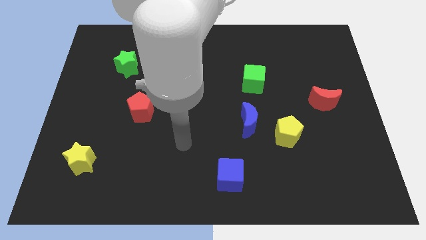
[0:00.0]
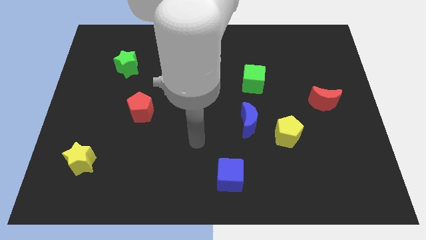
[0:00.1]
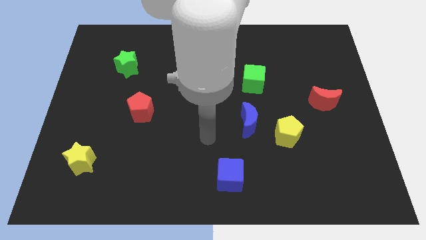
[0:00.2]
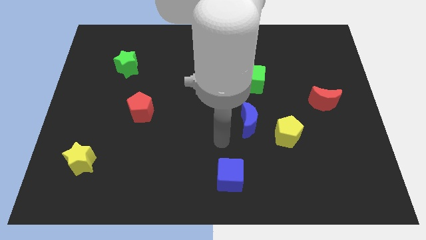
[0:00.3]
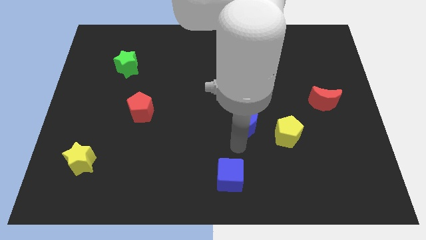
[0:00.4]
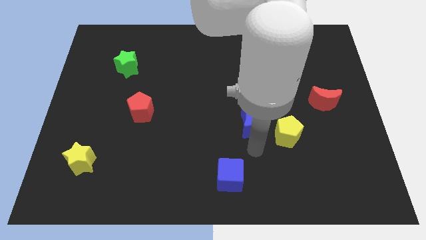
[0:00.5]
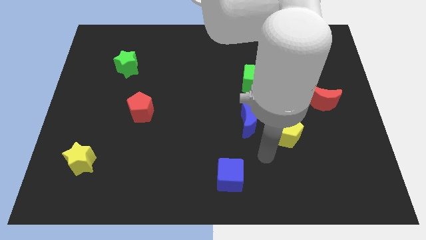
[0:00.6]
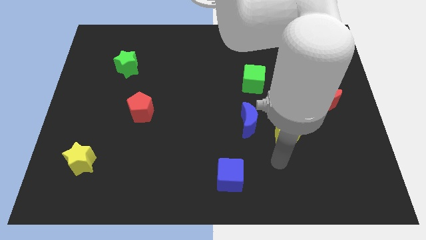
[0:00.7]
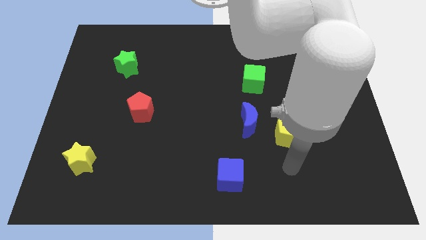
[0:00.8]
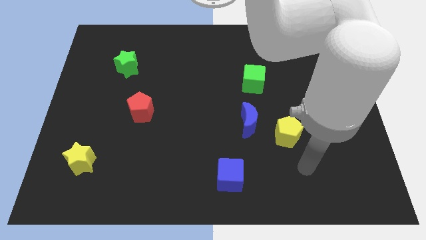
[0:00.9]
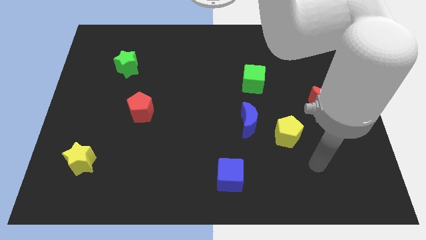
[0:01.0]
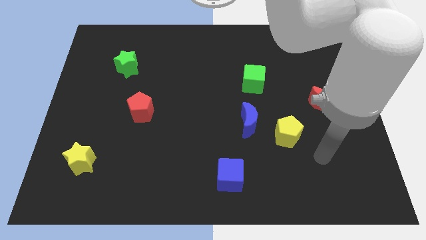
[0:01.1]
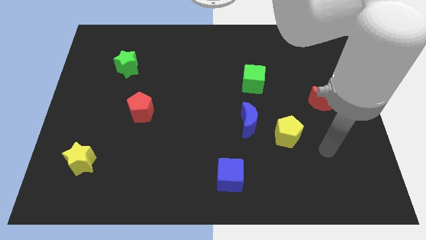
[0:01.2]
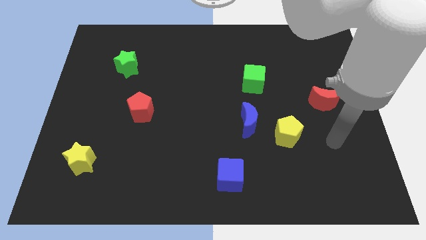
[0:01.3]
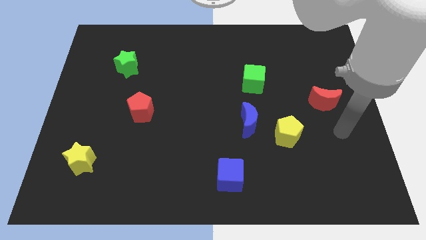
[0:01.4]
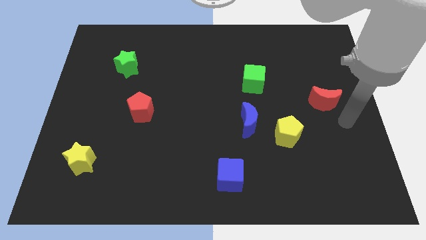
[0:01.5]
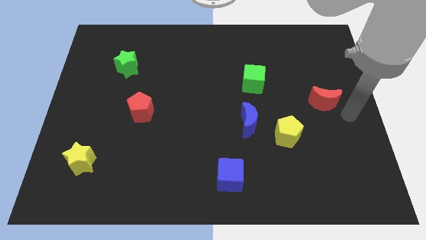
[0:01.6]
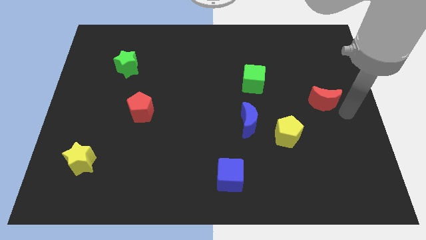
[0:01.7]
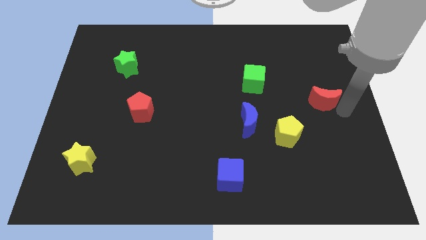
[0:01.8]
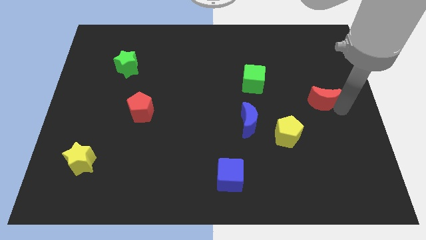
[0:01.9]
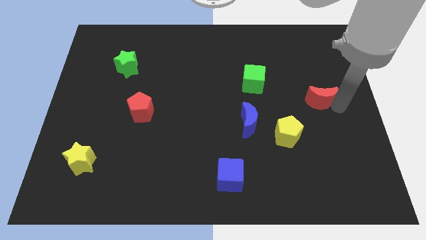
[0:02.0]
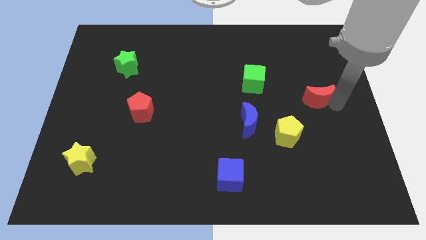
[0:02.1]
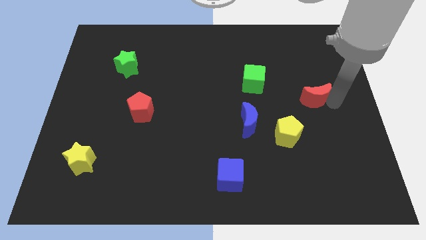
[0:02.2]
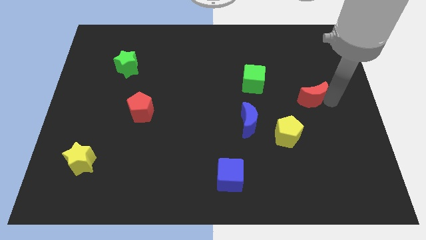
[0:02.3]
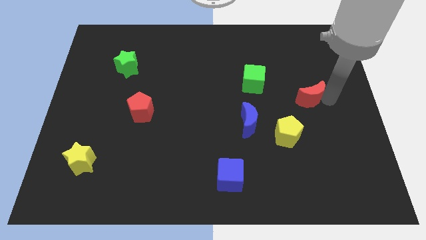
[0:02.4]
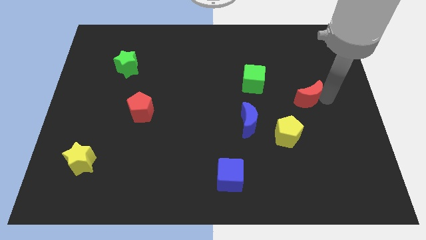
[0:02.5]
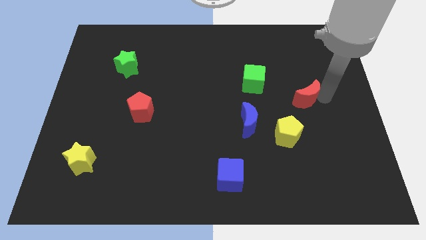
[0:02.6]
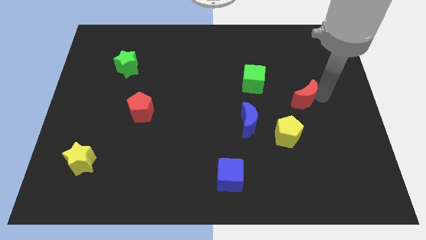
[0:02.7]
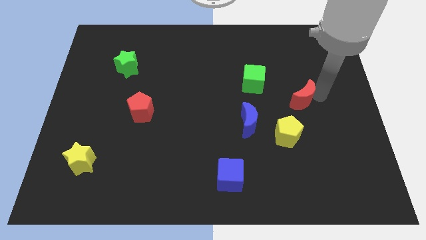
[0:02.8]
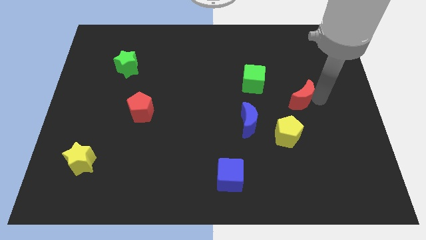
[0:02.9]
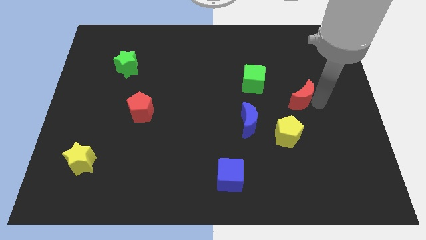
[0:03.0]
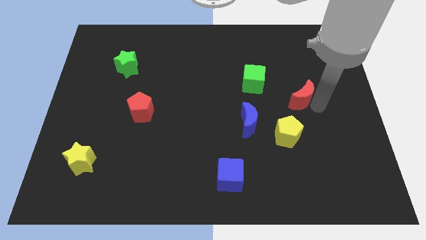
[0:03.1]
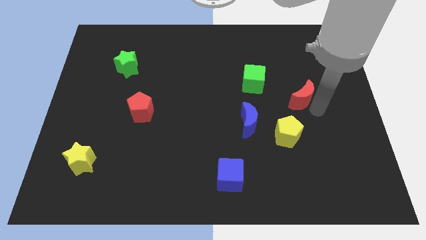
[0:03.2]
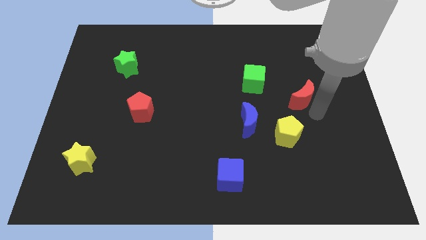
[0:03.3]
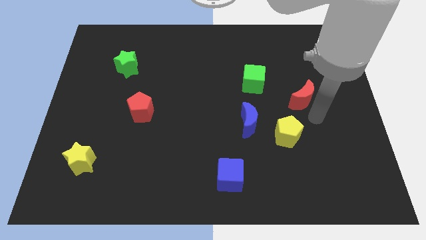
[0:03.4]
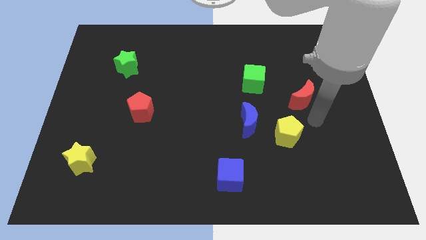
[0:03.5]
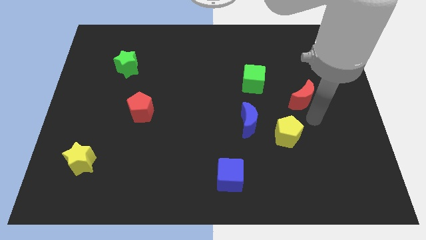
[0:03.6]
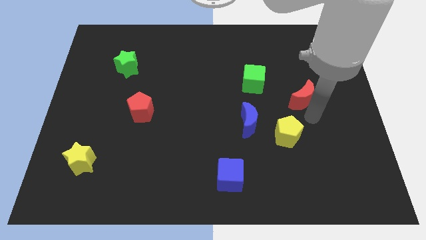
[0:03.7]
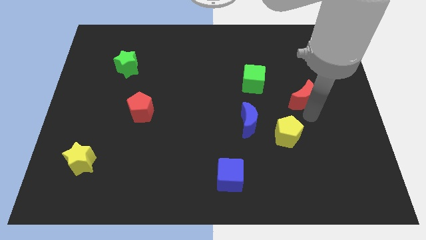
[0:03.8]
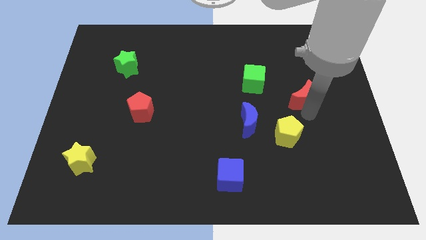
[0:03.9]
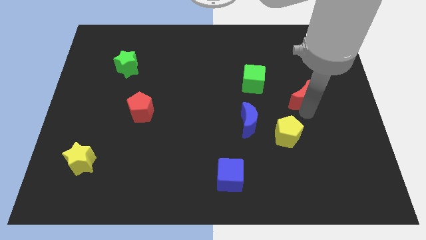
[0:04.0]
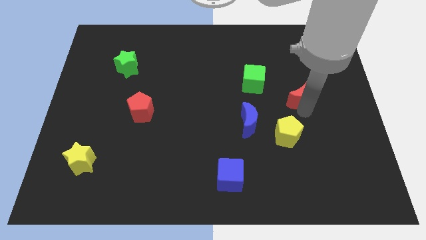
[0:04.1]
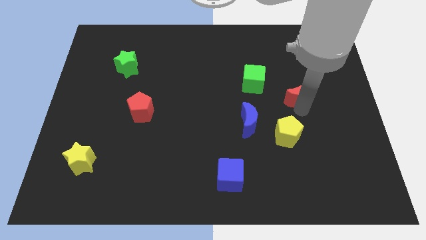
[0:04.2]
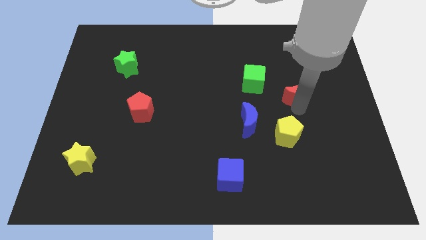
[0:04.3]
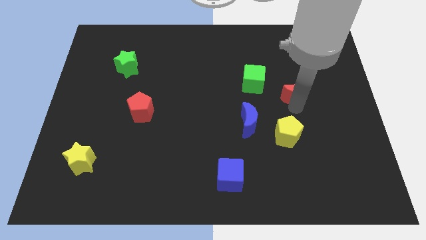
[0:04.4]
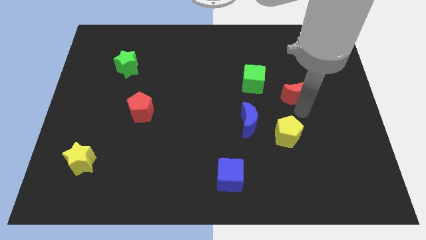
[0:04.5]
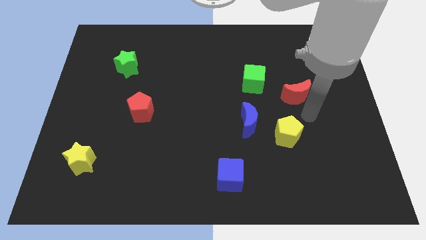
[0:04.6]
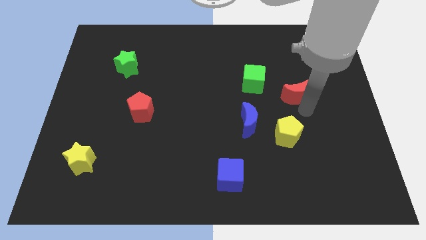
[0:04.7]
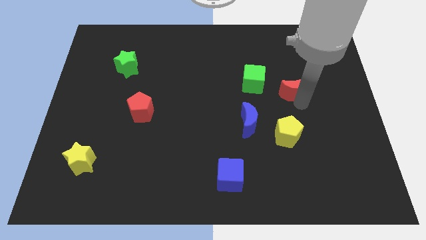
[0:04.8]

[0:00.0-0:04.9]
slide the red moon somewhat upwards and then to the left

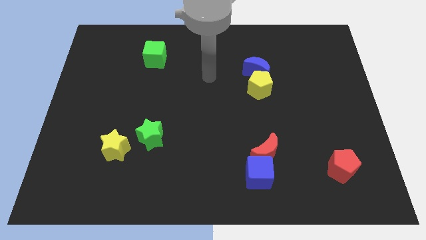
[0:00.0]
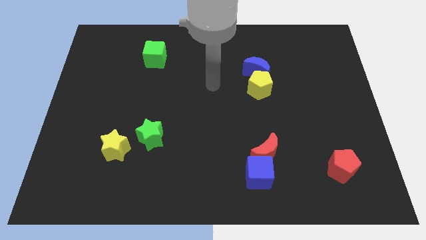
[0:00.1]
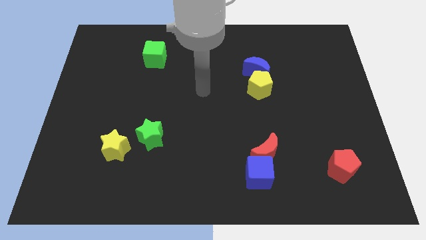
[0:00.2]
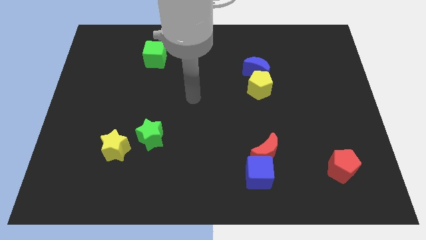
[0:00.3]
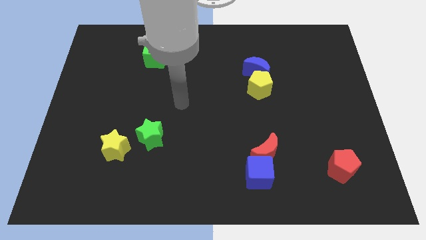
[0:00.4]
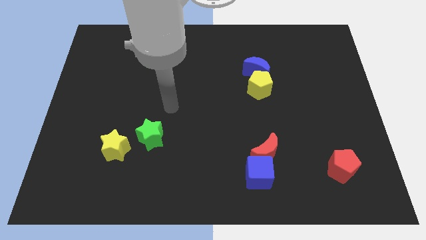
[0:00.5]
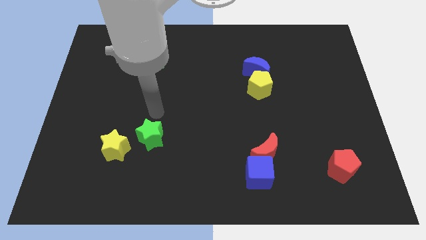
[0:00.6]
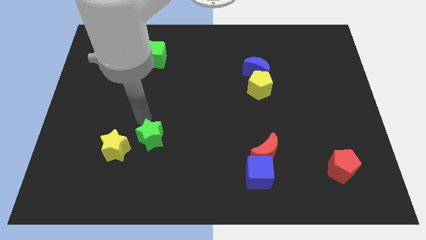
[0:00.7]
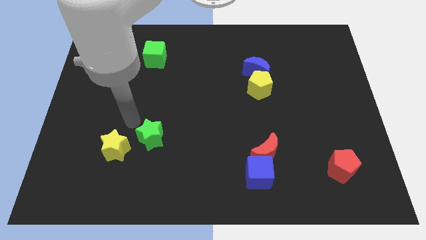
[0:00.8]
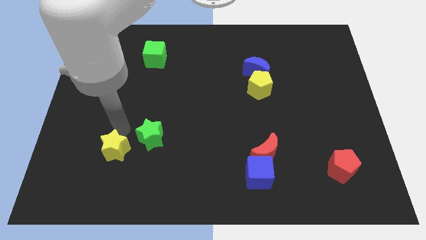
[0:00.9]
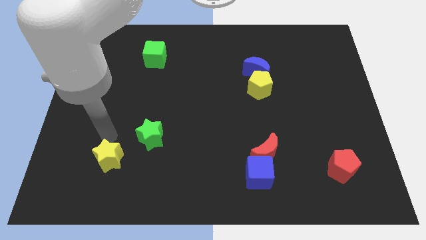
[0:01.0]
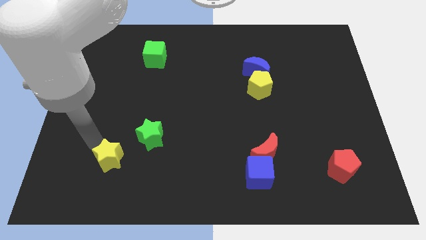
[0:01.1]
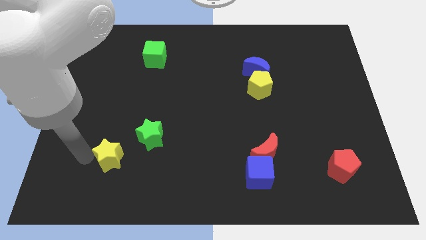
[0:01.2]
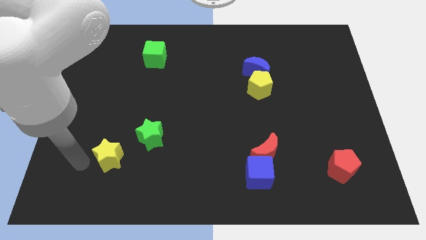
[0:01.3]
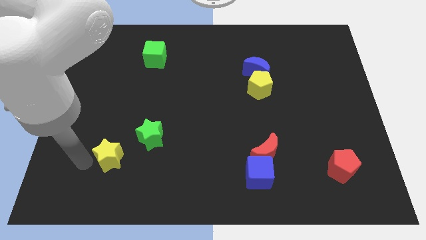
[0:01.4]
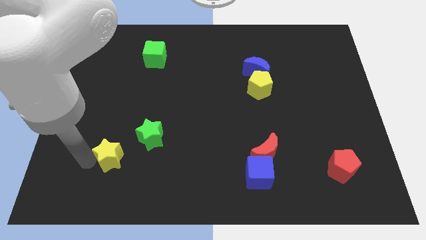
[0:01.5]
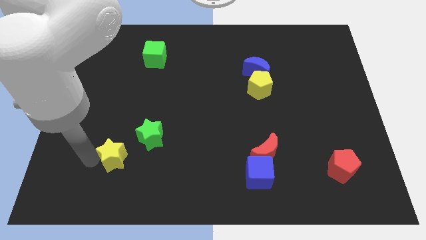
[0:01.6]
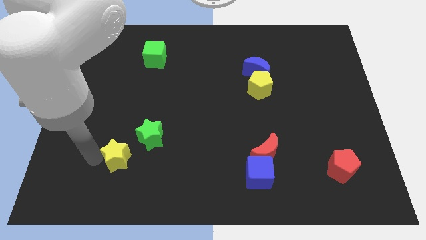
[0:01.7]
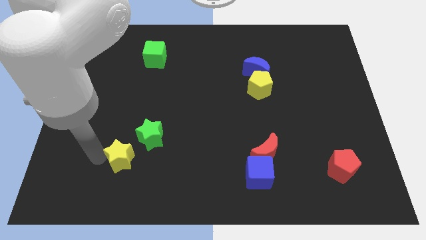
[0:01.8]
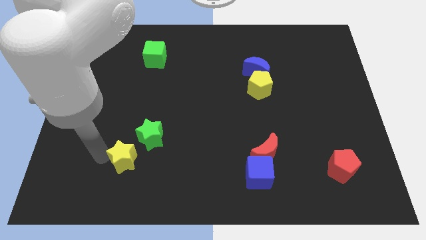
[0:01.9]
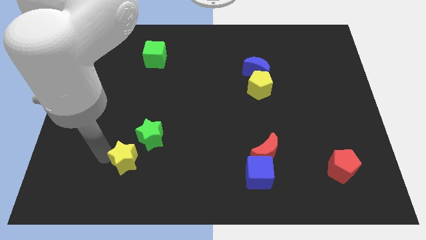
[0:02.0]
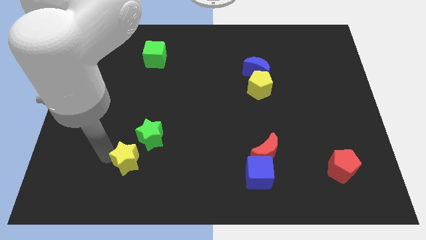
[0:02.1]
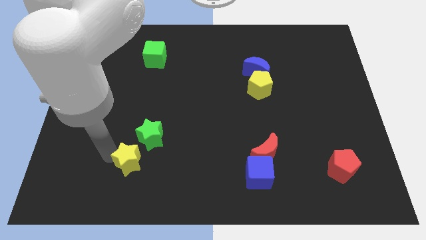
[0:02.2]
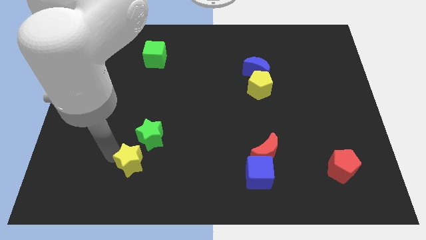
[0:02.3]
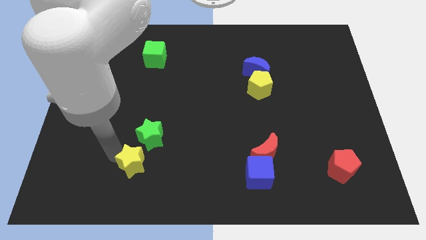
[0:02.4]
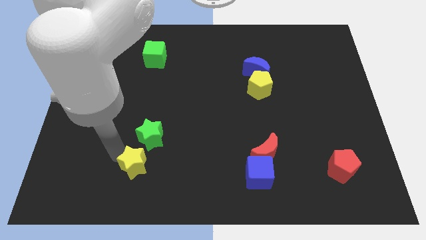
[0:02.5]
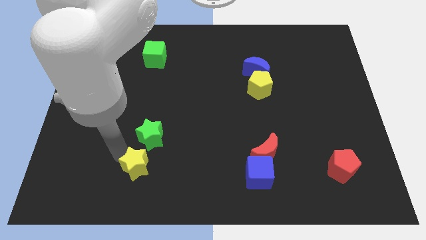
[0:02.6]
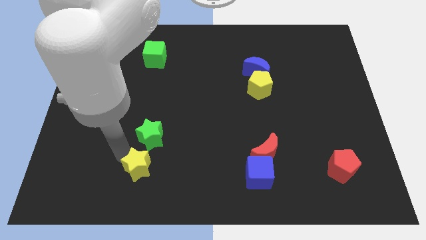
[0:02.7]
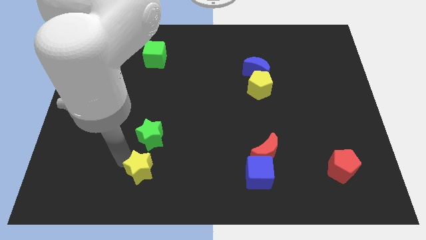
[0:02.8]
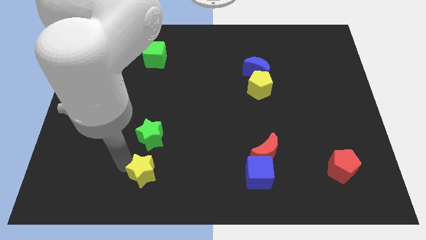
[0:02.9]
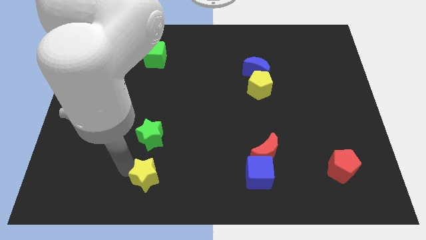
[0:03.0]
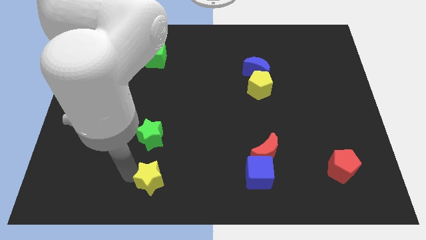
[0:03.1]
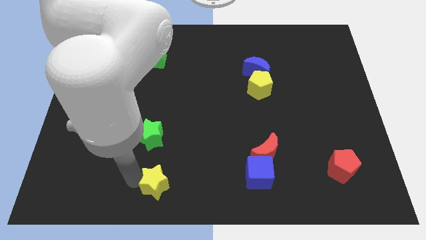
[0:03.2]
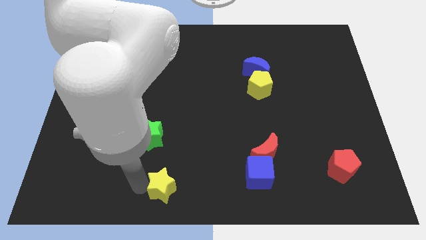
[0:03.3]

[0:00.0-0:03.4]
slightly slide the yellow star right
